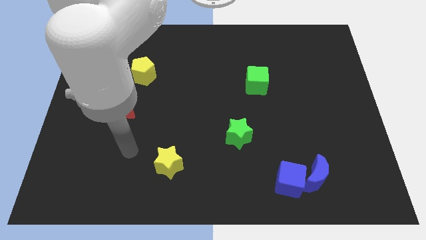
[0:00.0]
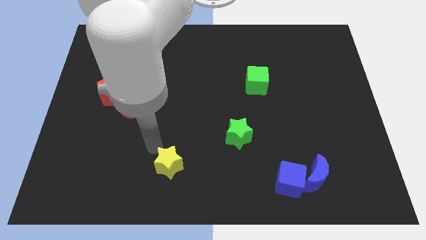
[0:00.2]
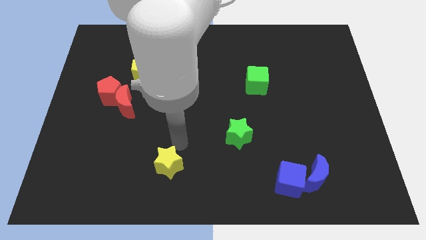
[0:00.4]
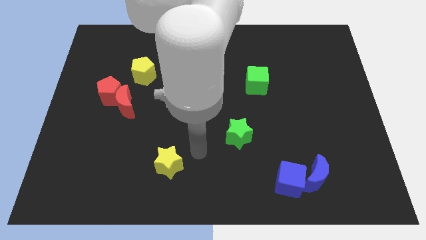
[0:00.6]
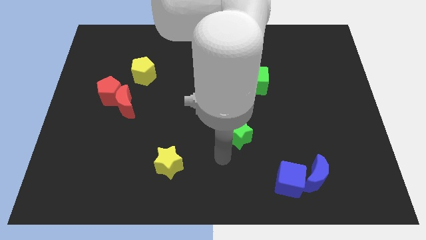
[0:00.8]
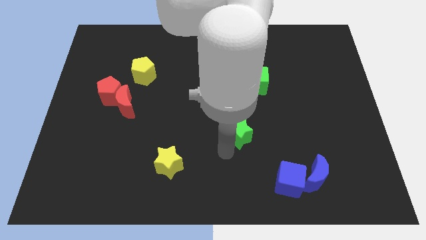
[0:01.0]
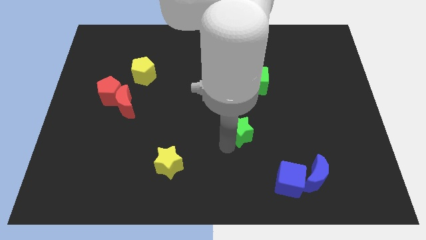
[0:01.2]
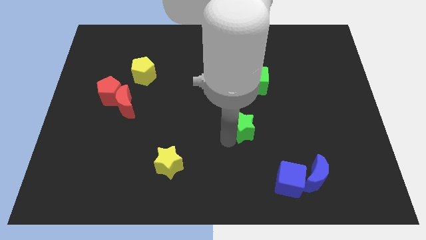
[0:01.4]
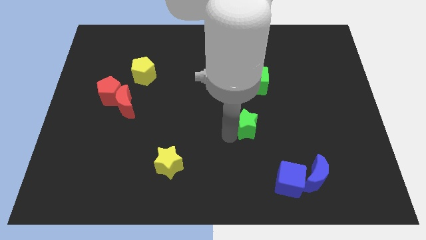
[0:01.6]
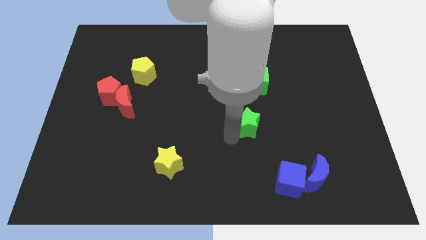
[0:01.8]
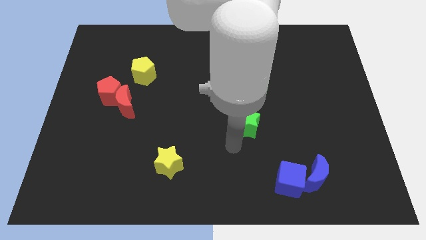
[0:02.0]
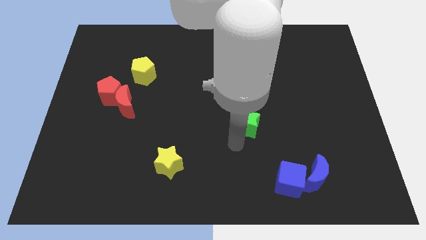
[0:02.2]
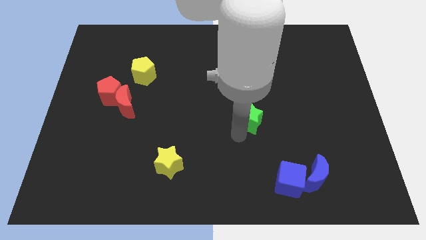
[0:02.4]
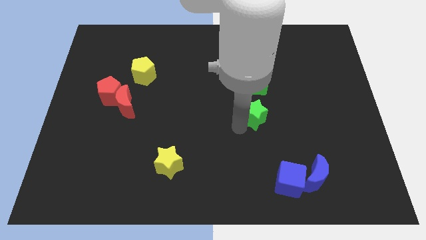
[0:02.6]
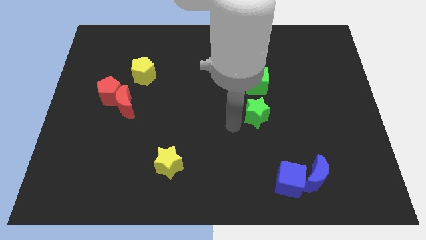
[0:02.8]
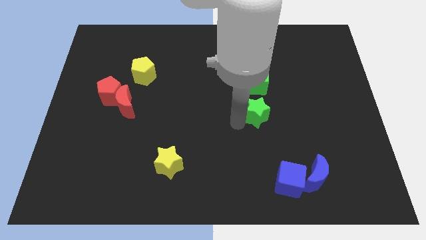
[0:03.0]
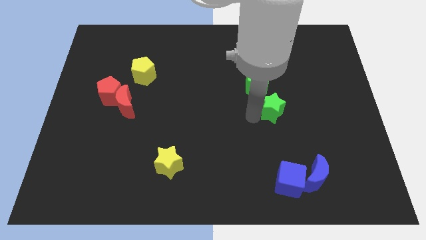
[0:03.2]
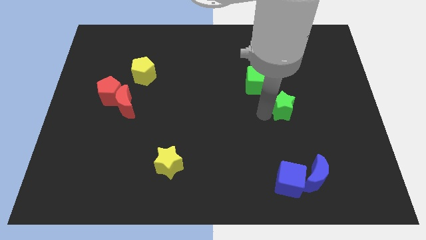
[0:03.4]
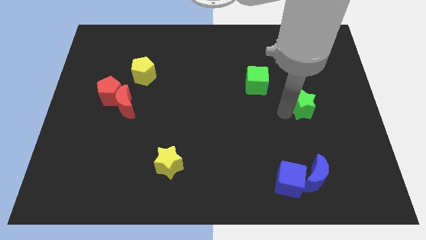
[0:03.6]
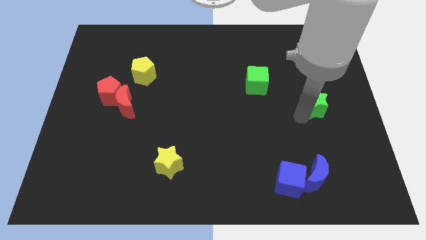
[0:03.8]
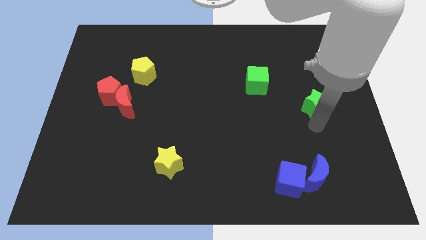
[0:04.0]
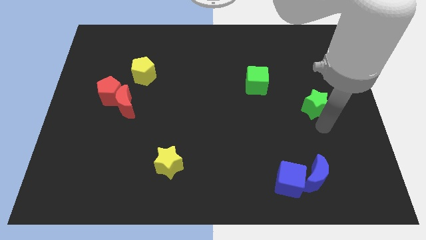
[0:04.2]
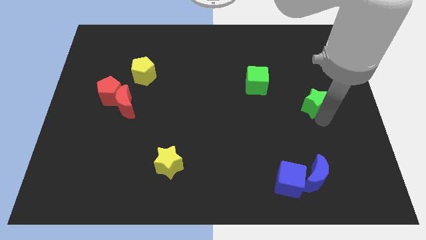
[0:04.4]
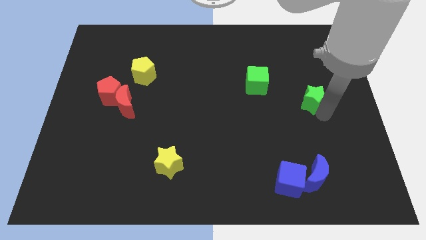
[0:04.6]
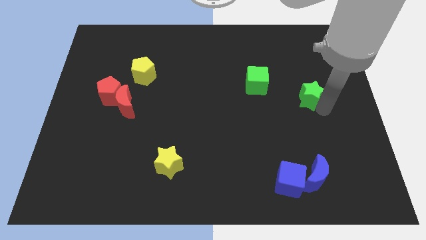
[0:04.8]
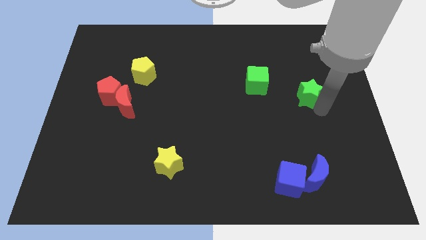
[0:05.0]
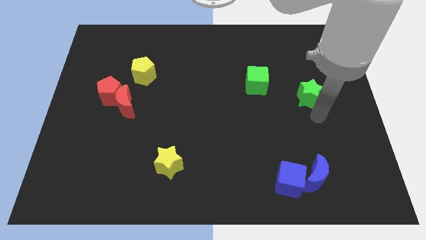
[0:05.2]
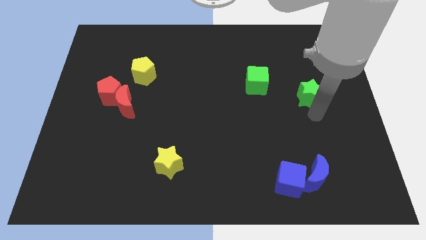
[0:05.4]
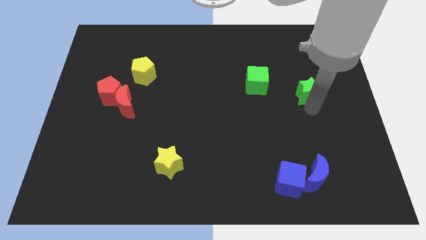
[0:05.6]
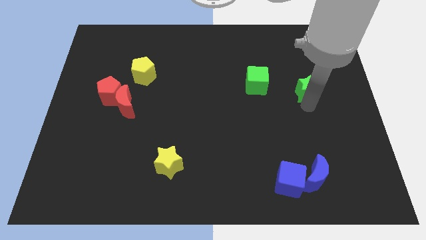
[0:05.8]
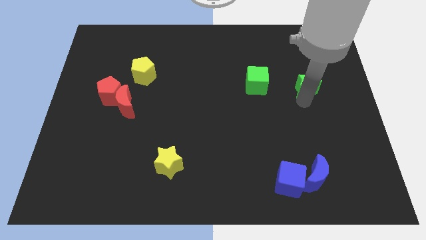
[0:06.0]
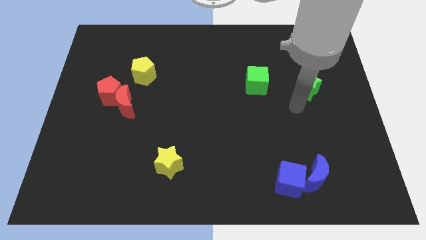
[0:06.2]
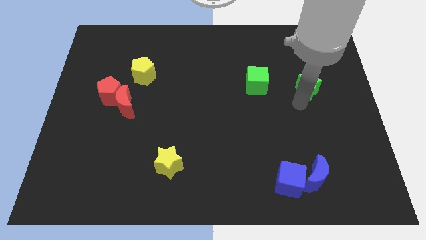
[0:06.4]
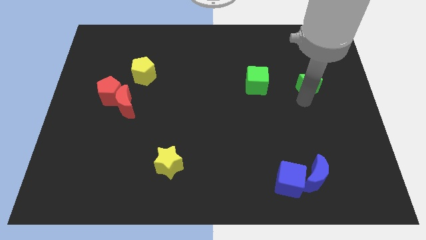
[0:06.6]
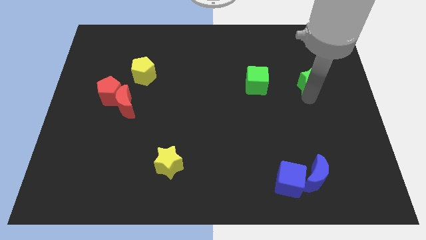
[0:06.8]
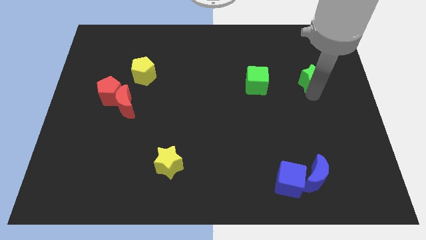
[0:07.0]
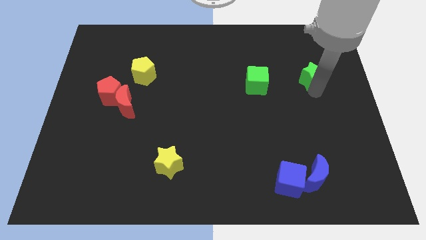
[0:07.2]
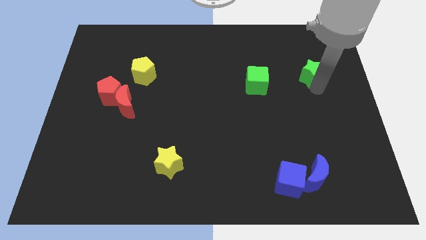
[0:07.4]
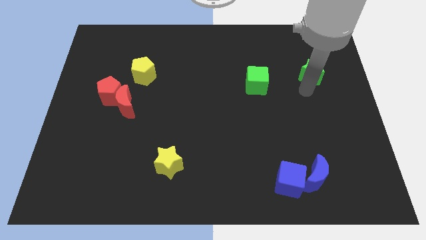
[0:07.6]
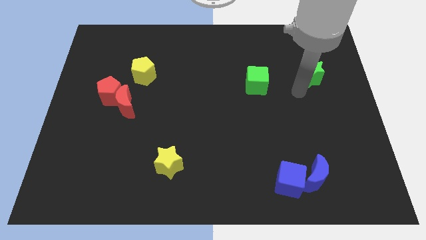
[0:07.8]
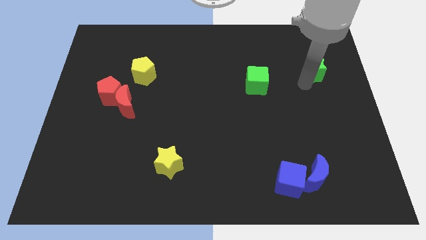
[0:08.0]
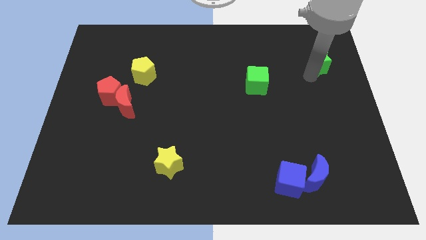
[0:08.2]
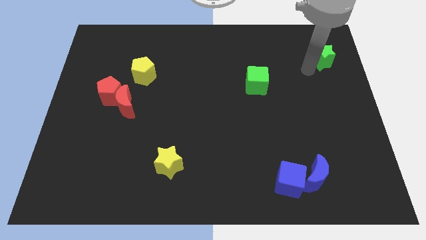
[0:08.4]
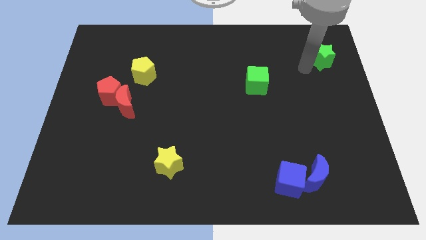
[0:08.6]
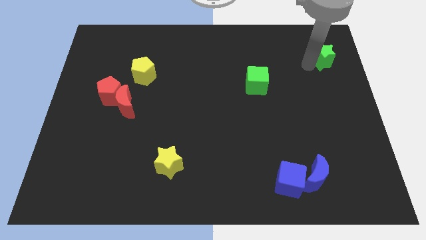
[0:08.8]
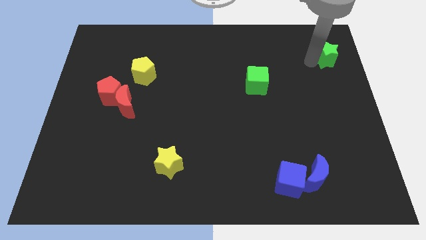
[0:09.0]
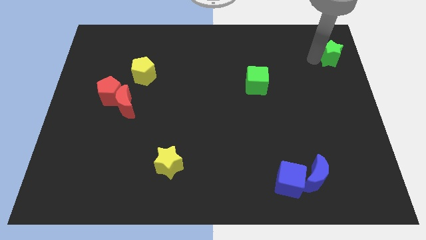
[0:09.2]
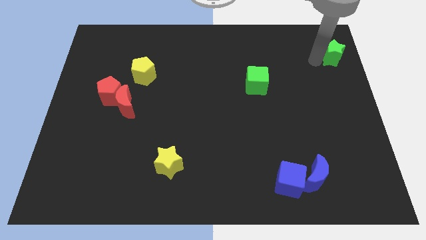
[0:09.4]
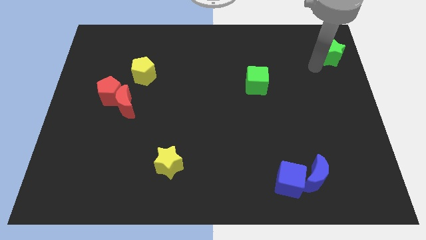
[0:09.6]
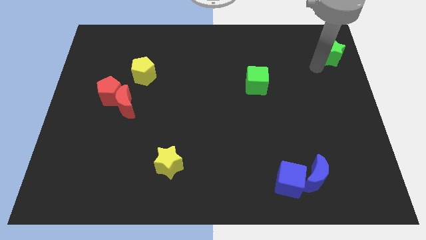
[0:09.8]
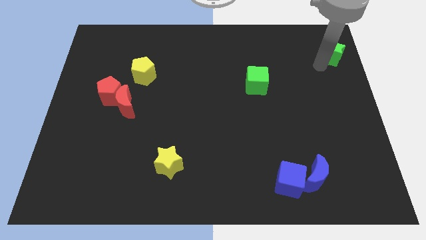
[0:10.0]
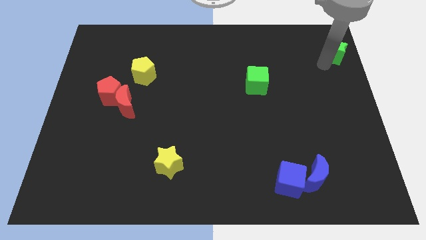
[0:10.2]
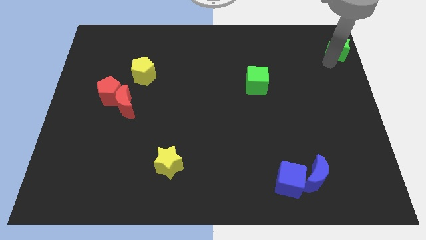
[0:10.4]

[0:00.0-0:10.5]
move the green star to the top right of the board
